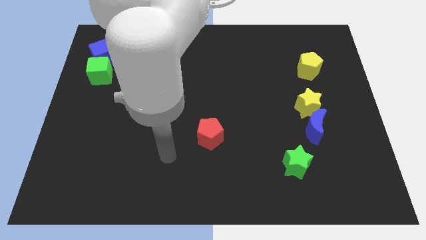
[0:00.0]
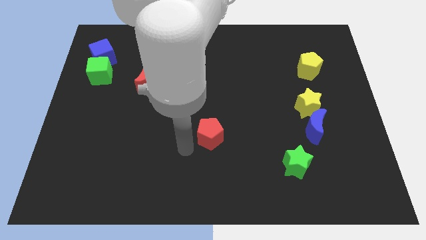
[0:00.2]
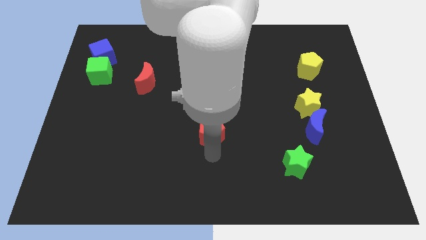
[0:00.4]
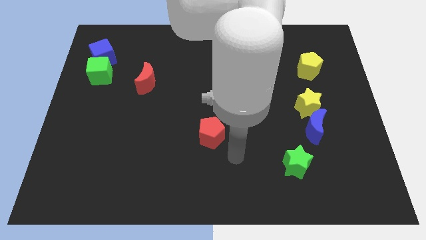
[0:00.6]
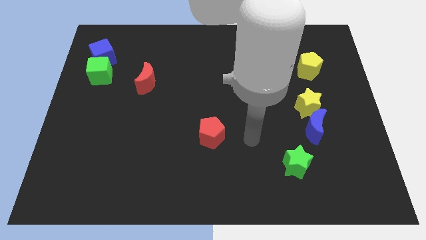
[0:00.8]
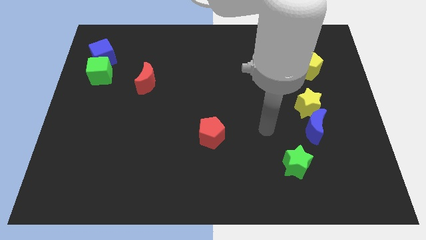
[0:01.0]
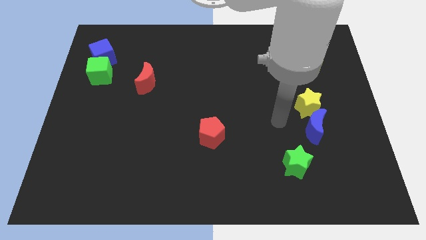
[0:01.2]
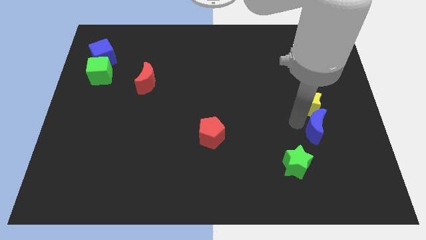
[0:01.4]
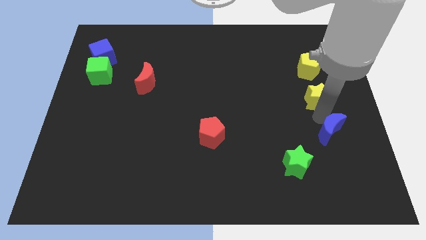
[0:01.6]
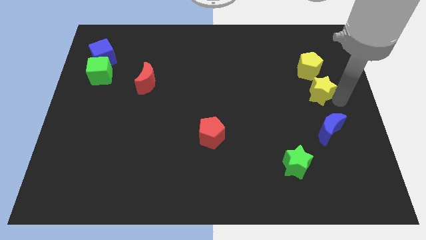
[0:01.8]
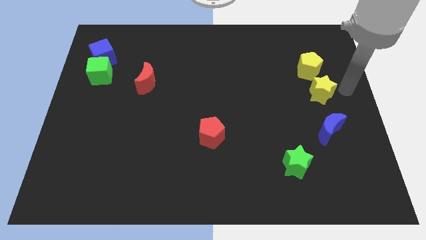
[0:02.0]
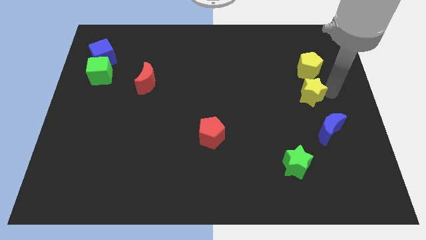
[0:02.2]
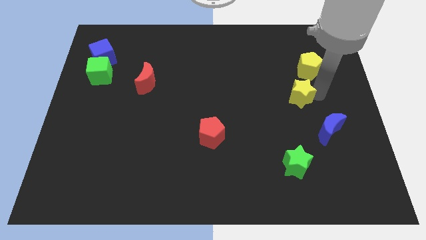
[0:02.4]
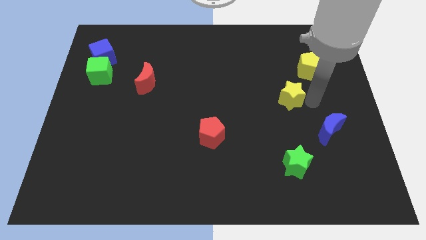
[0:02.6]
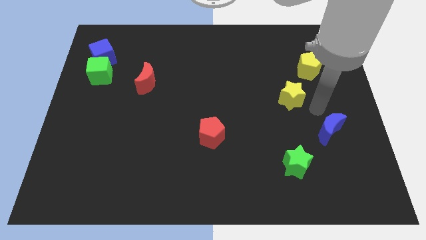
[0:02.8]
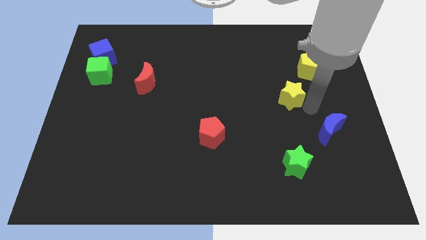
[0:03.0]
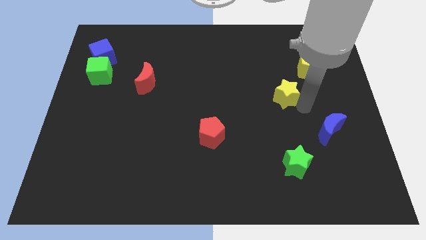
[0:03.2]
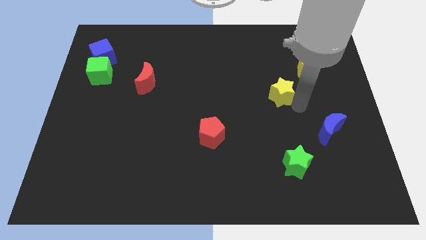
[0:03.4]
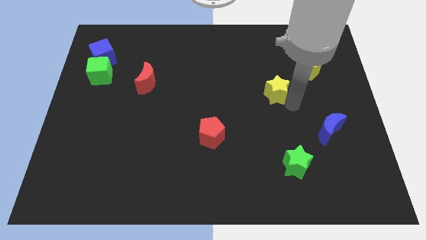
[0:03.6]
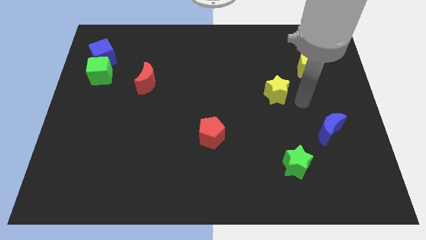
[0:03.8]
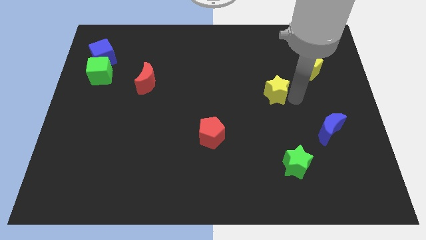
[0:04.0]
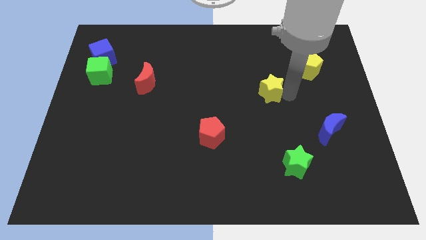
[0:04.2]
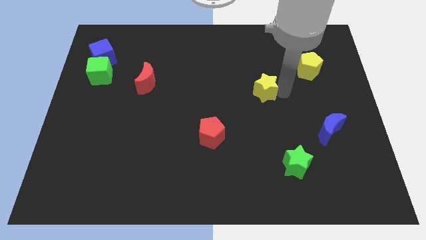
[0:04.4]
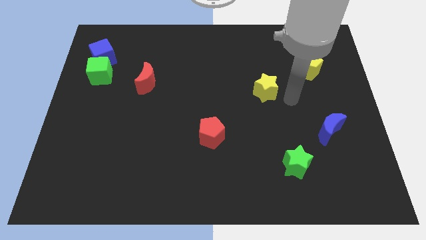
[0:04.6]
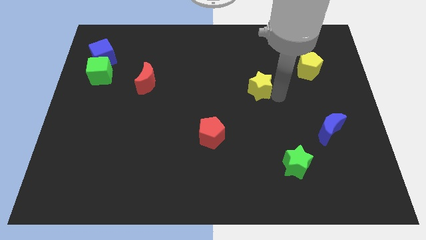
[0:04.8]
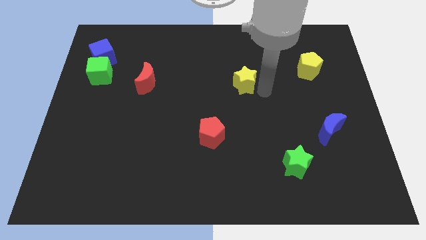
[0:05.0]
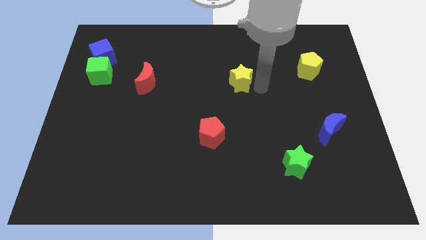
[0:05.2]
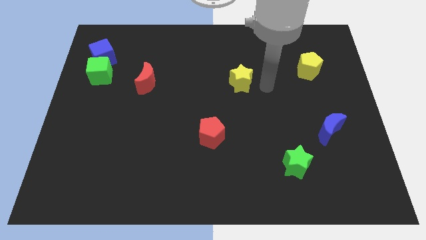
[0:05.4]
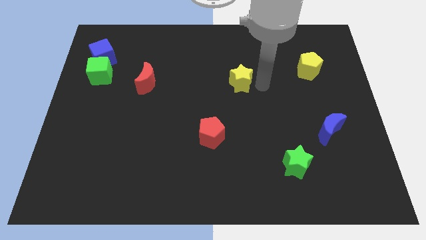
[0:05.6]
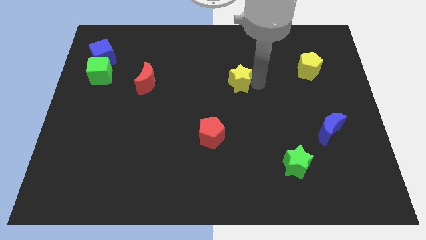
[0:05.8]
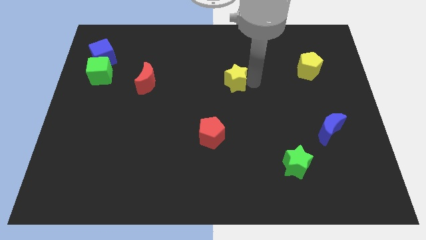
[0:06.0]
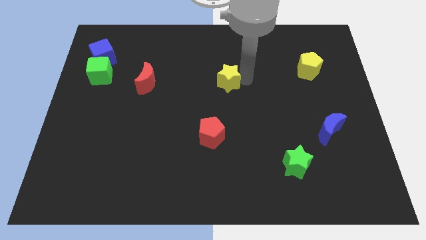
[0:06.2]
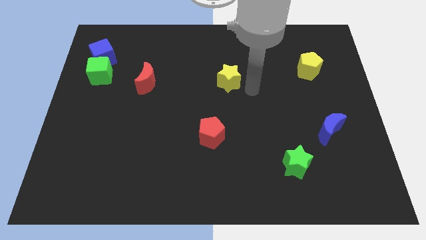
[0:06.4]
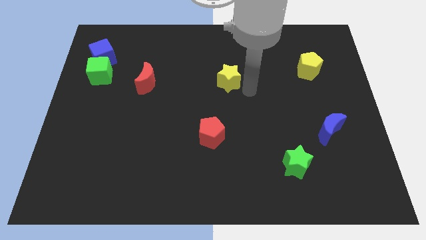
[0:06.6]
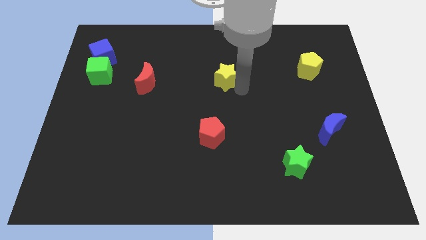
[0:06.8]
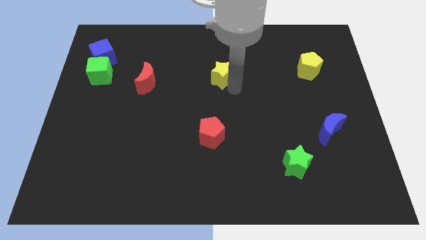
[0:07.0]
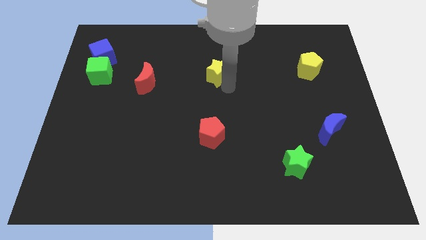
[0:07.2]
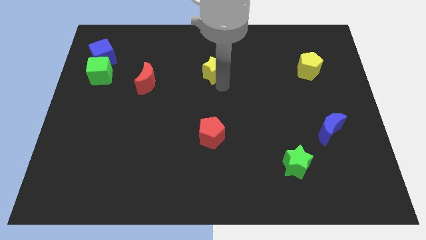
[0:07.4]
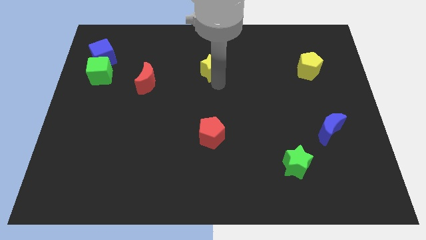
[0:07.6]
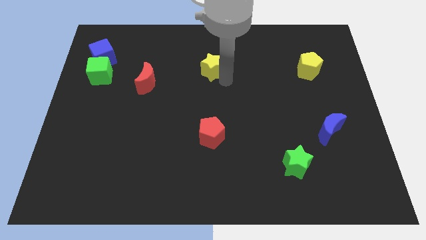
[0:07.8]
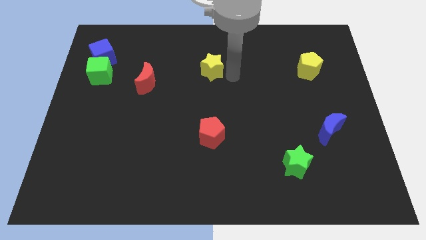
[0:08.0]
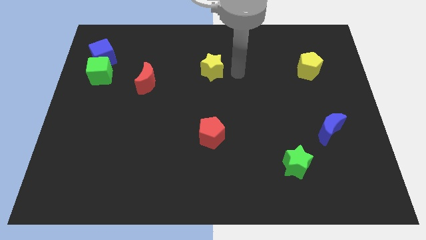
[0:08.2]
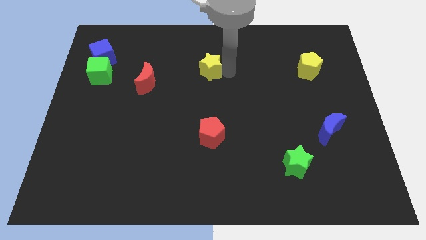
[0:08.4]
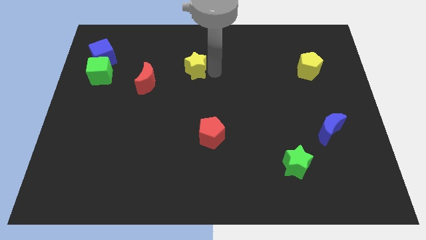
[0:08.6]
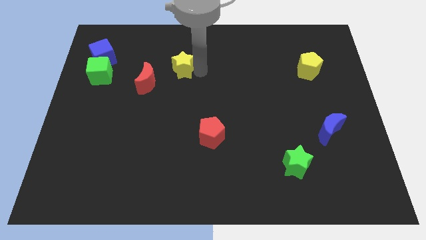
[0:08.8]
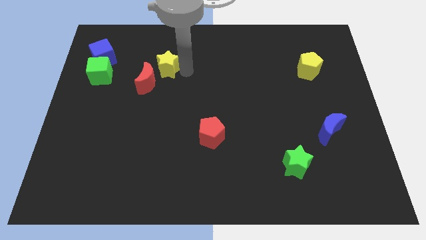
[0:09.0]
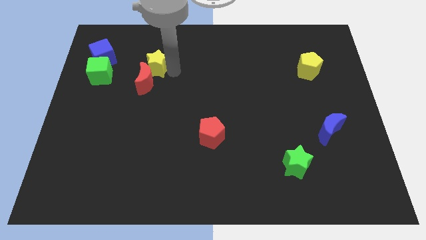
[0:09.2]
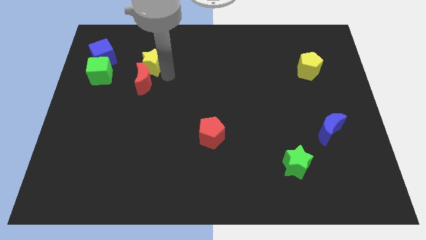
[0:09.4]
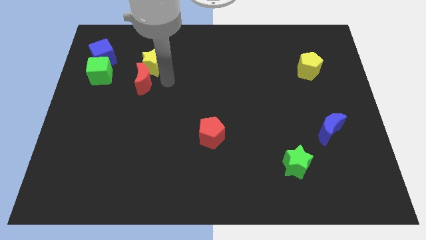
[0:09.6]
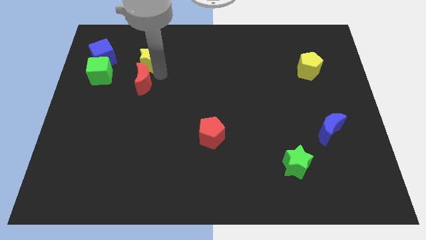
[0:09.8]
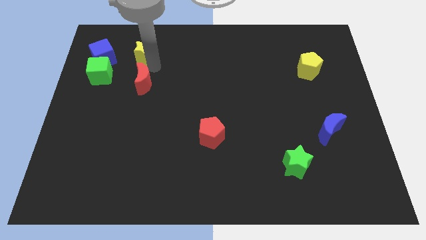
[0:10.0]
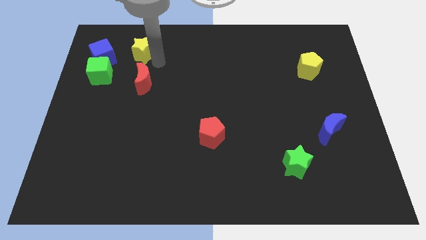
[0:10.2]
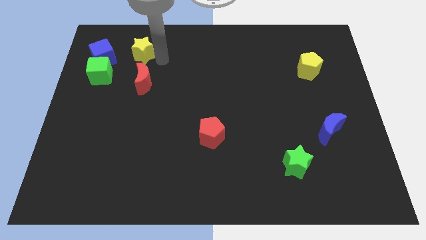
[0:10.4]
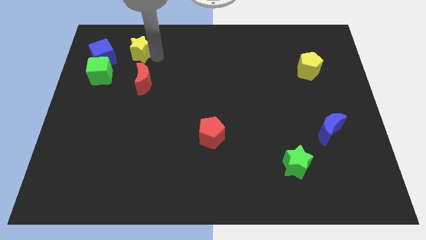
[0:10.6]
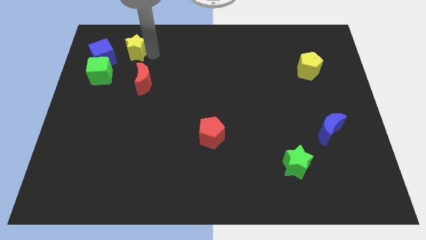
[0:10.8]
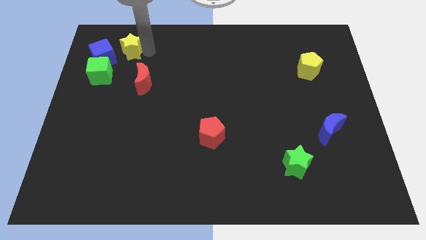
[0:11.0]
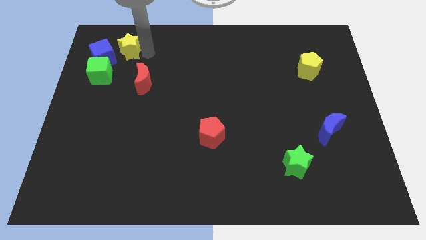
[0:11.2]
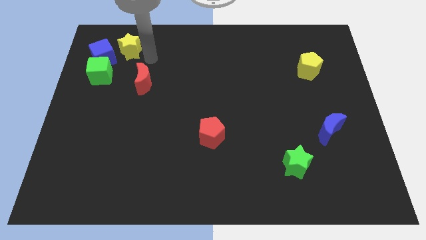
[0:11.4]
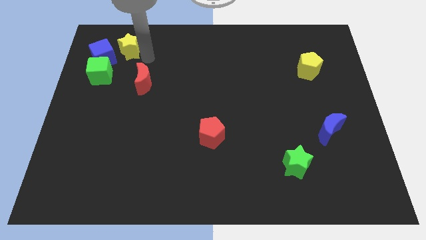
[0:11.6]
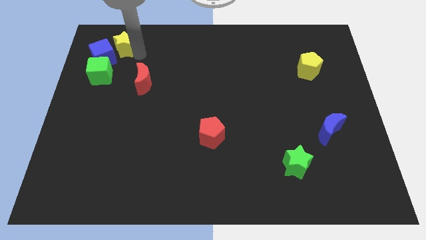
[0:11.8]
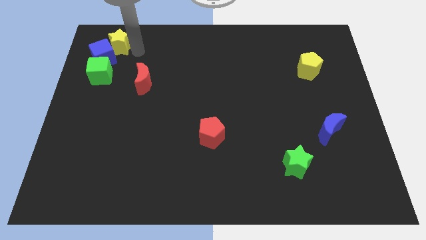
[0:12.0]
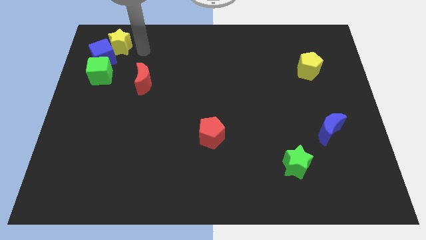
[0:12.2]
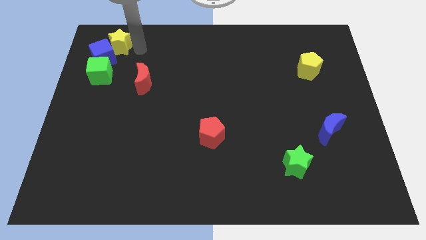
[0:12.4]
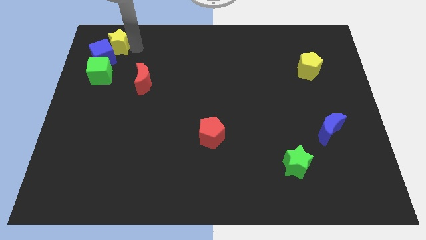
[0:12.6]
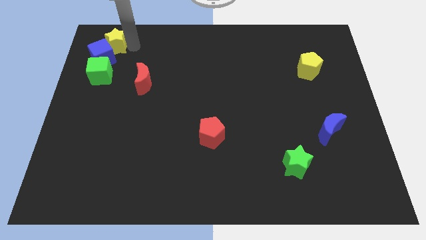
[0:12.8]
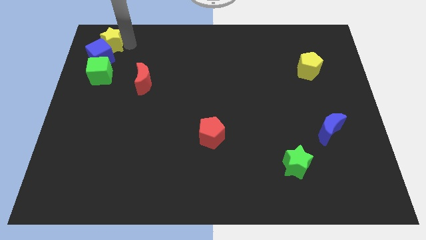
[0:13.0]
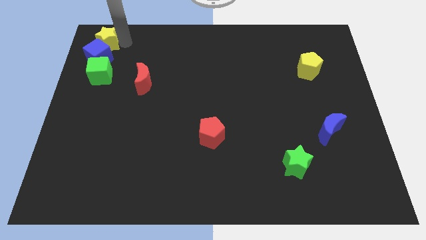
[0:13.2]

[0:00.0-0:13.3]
slide the yellow star to the top left corner
